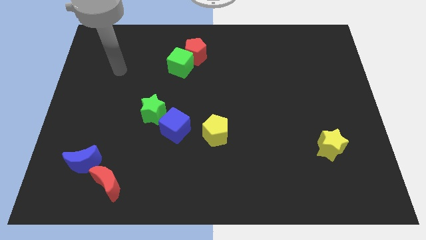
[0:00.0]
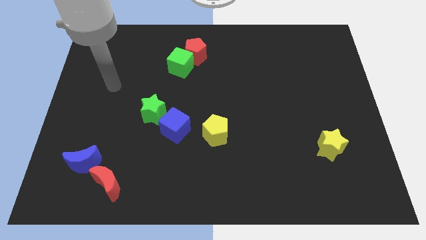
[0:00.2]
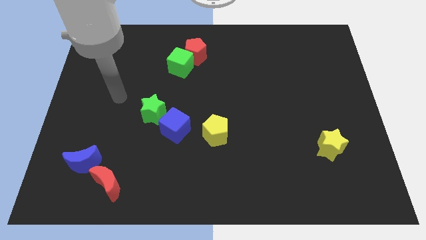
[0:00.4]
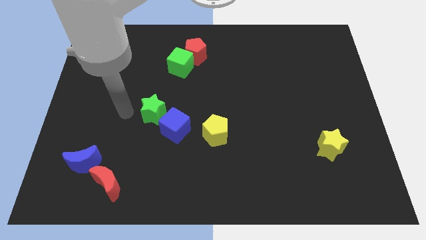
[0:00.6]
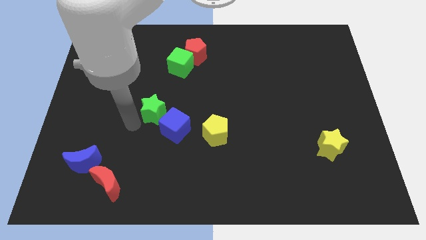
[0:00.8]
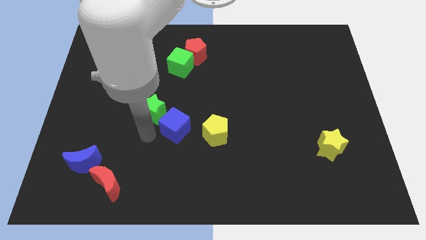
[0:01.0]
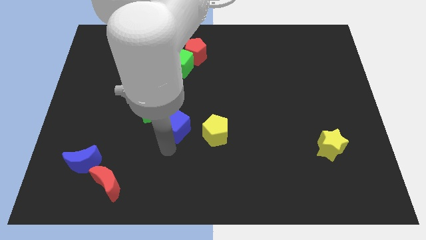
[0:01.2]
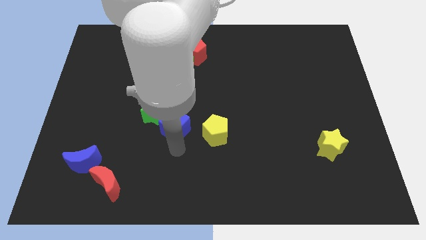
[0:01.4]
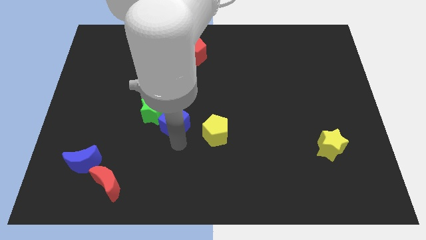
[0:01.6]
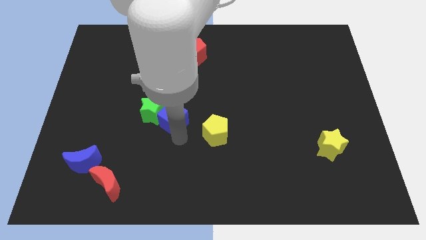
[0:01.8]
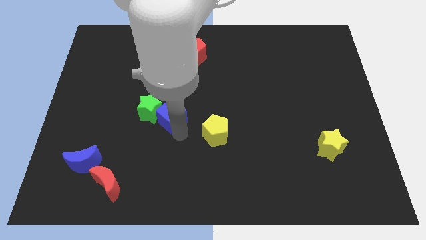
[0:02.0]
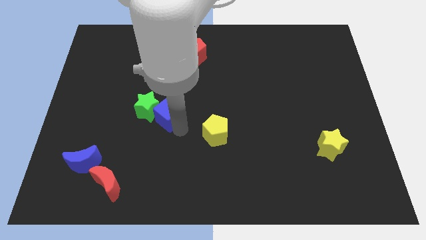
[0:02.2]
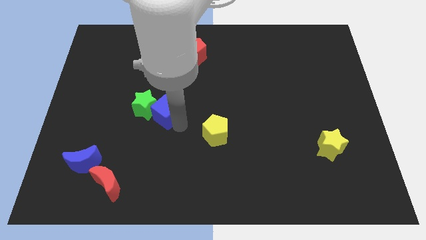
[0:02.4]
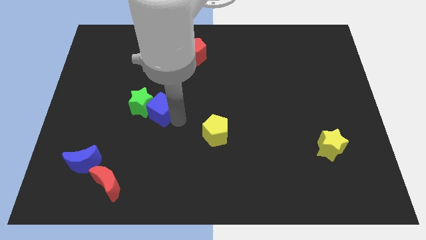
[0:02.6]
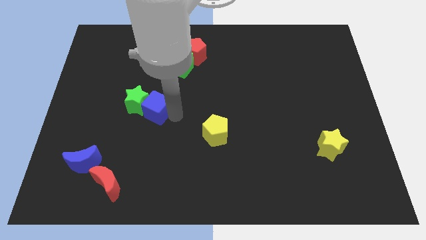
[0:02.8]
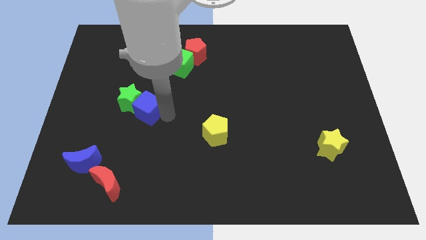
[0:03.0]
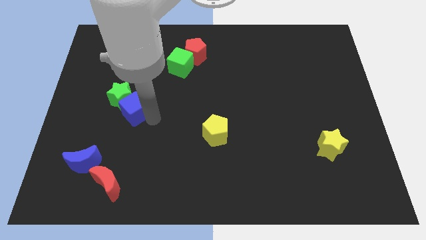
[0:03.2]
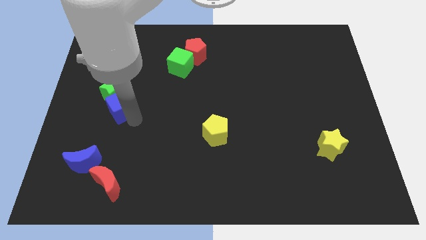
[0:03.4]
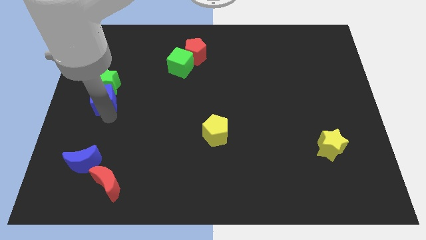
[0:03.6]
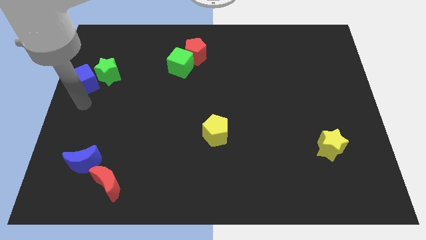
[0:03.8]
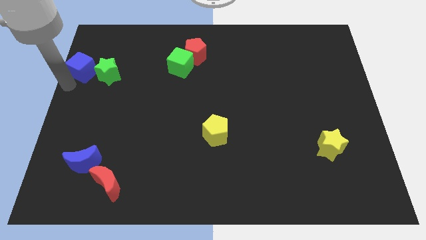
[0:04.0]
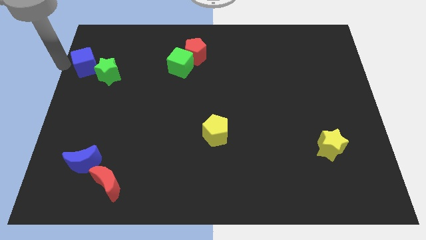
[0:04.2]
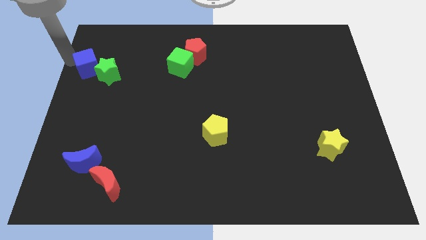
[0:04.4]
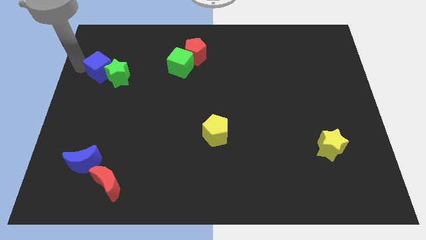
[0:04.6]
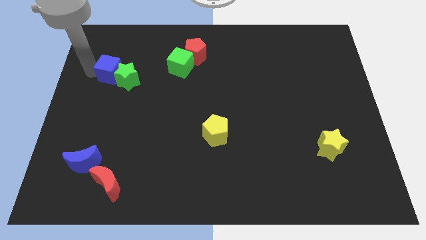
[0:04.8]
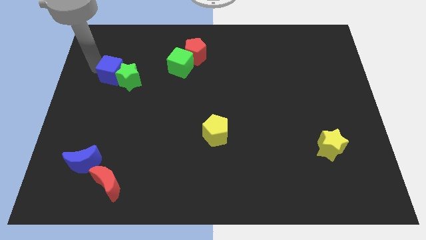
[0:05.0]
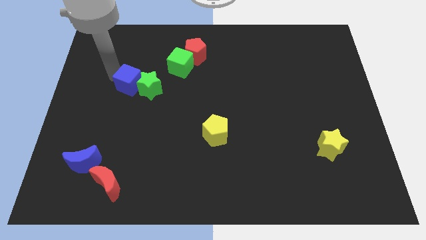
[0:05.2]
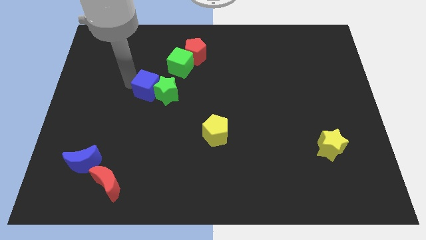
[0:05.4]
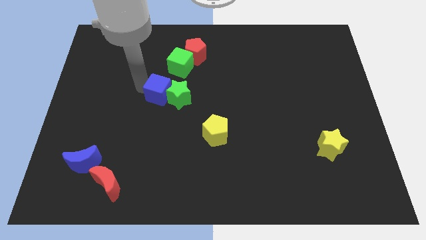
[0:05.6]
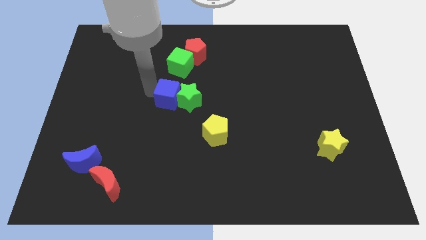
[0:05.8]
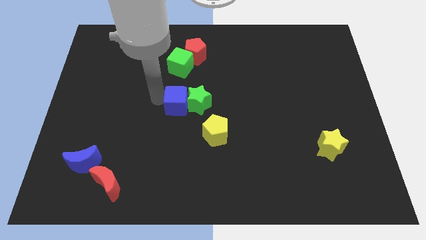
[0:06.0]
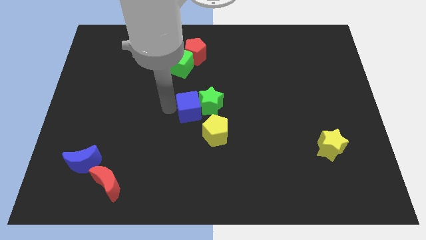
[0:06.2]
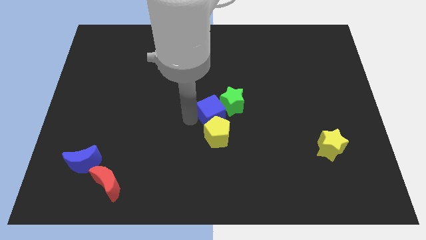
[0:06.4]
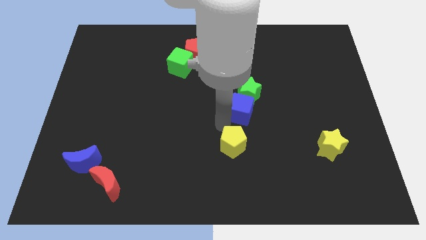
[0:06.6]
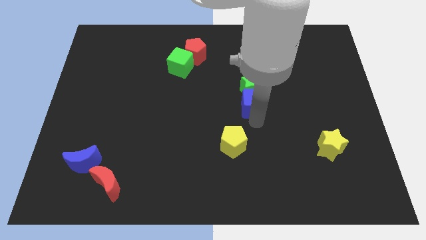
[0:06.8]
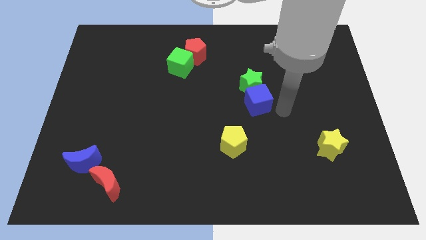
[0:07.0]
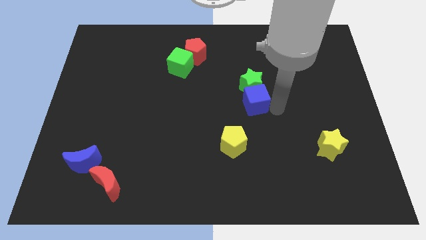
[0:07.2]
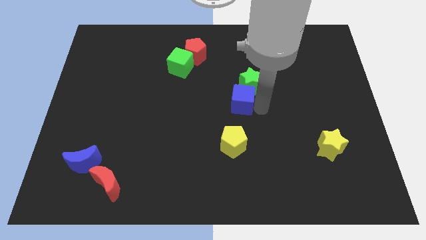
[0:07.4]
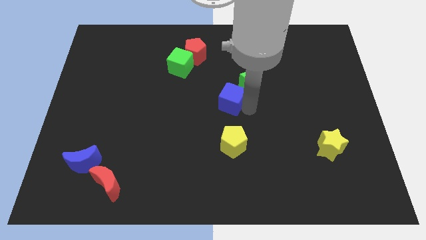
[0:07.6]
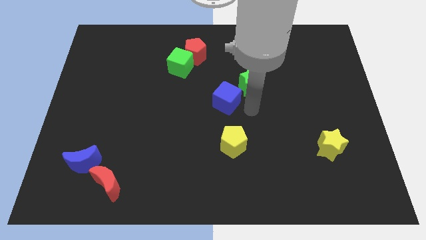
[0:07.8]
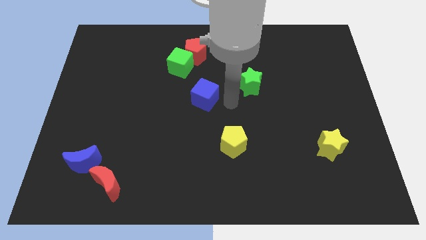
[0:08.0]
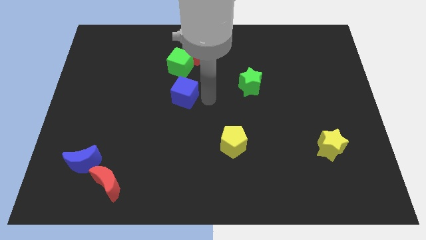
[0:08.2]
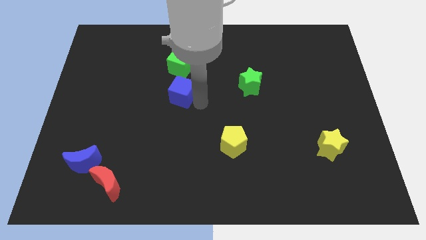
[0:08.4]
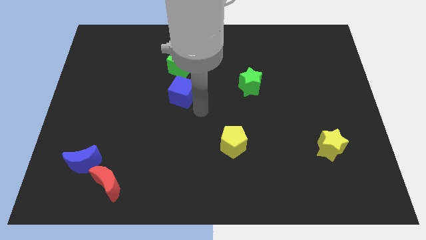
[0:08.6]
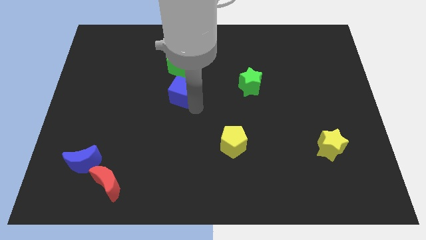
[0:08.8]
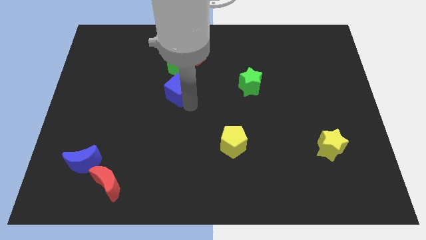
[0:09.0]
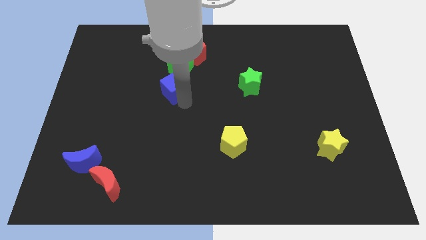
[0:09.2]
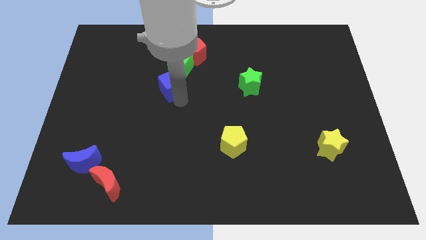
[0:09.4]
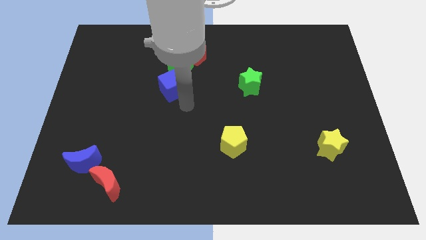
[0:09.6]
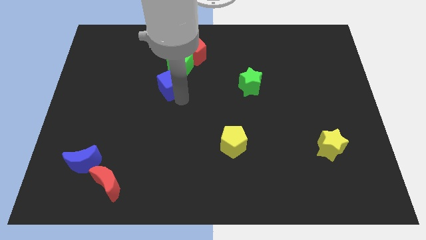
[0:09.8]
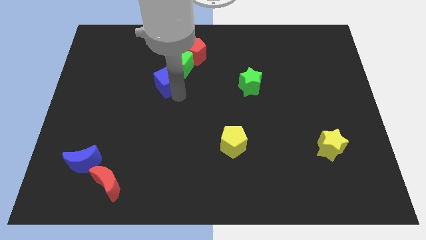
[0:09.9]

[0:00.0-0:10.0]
put the blue cube to the bottom left of the red pentagon

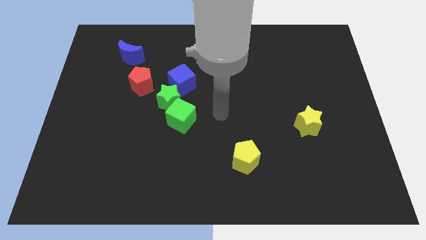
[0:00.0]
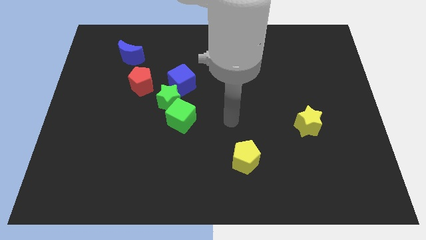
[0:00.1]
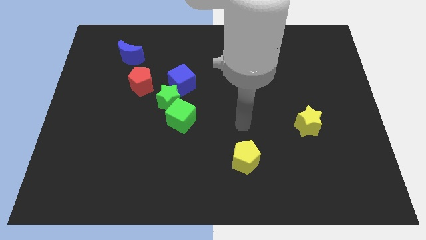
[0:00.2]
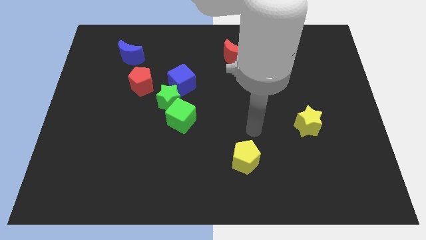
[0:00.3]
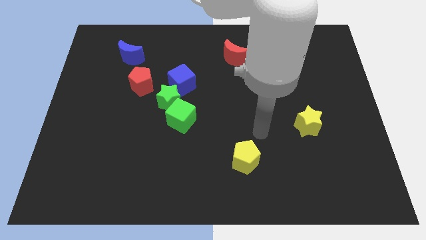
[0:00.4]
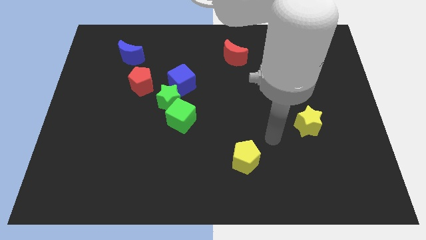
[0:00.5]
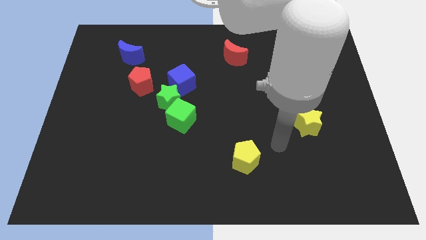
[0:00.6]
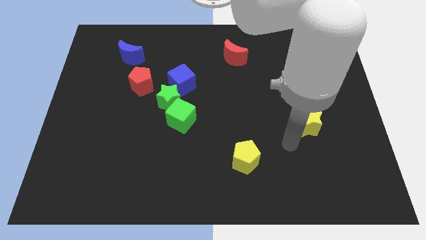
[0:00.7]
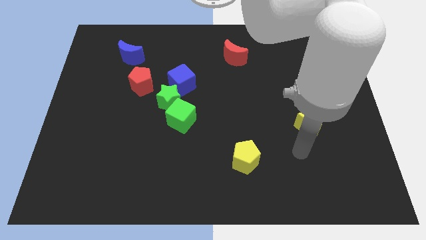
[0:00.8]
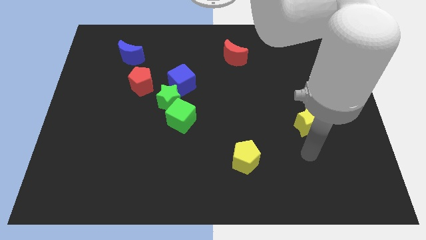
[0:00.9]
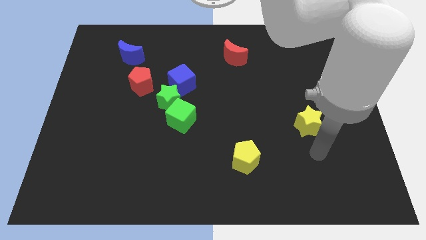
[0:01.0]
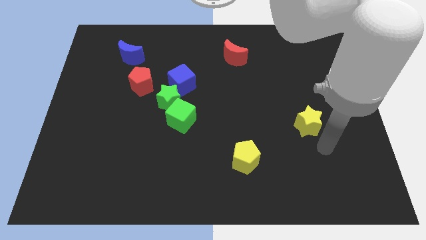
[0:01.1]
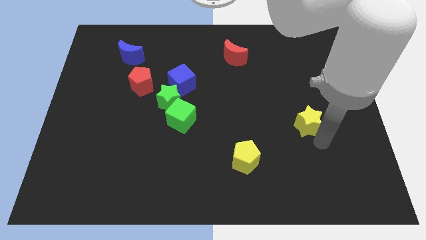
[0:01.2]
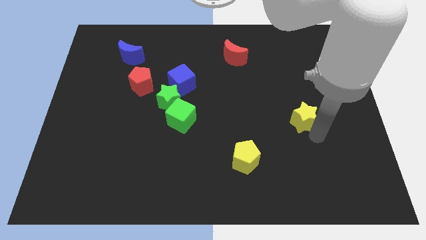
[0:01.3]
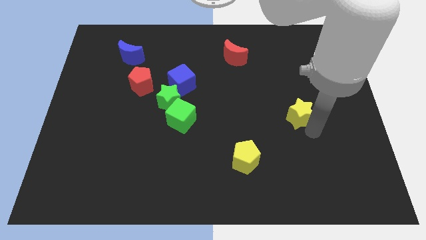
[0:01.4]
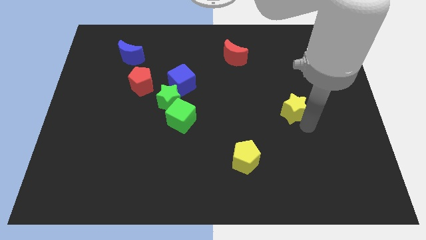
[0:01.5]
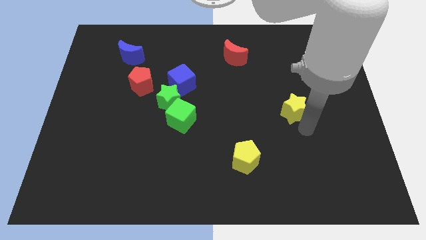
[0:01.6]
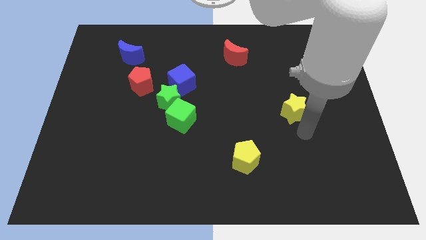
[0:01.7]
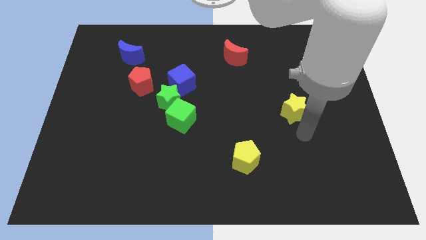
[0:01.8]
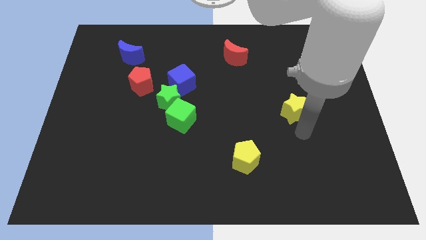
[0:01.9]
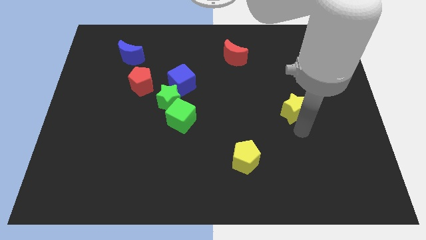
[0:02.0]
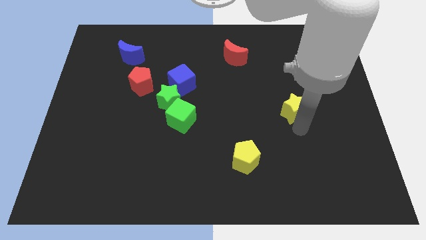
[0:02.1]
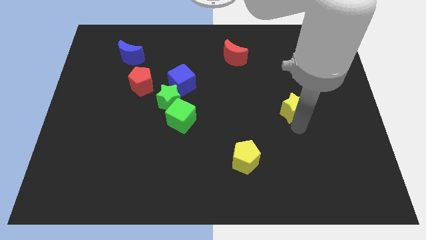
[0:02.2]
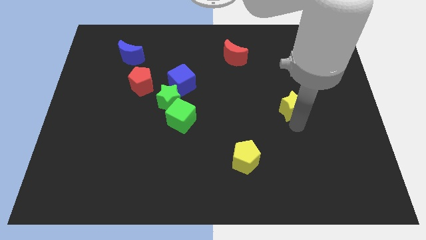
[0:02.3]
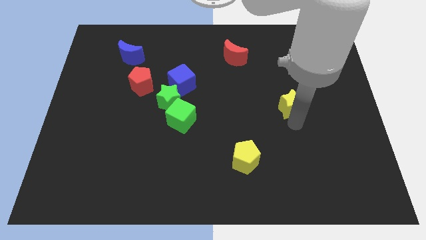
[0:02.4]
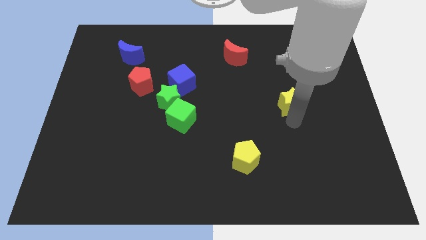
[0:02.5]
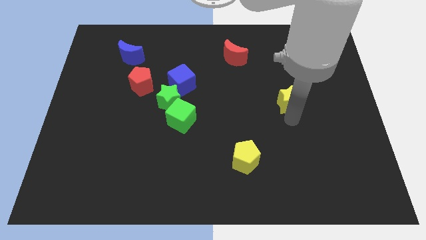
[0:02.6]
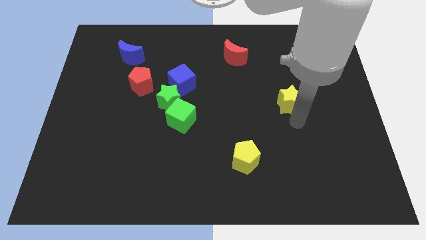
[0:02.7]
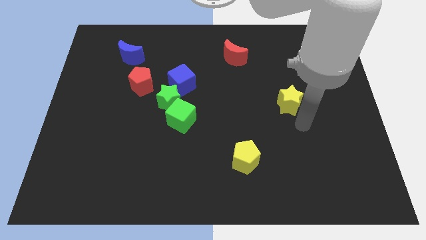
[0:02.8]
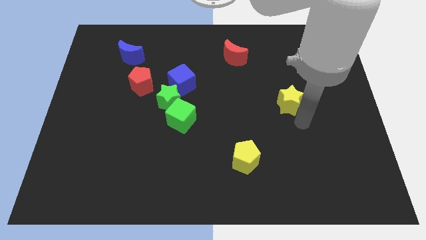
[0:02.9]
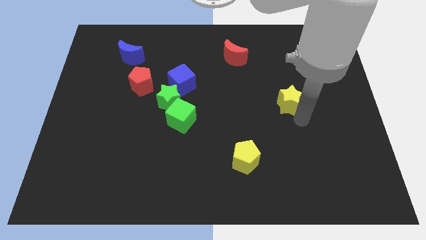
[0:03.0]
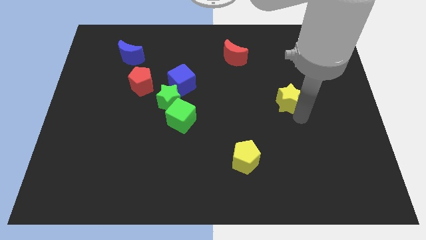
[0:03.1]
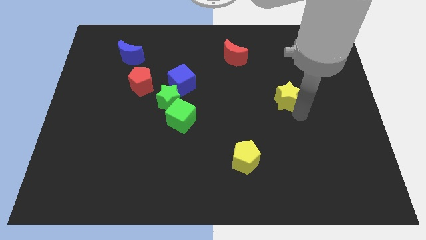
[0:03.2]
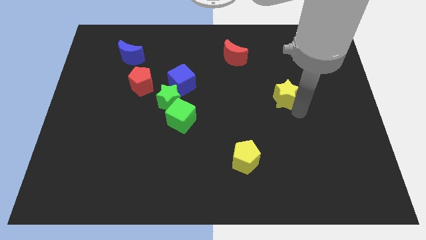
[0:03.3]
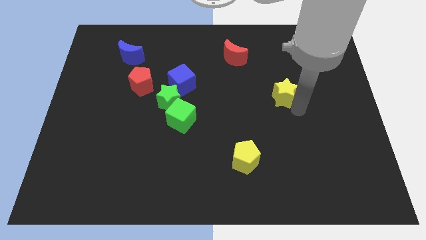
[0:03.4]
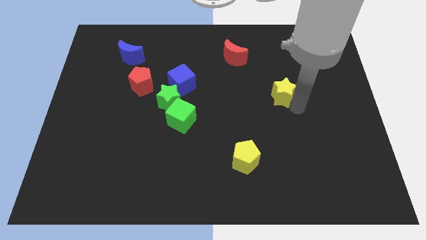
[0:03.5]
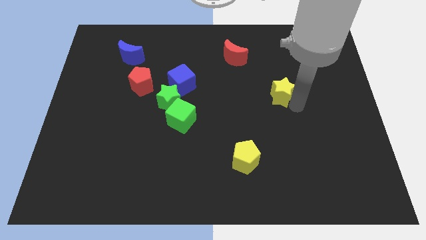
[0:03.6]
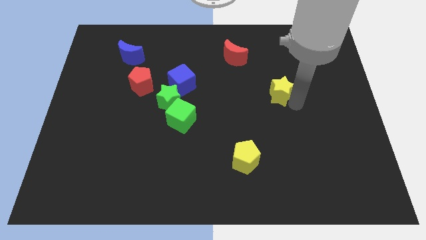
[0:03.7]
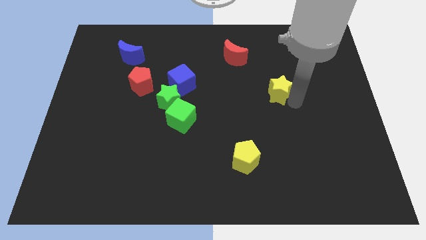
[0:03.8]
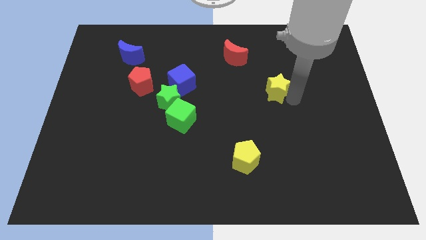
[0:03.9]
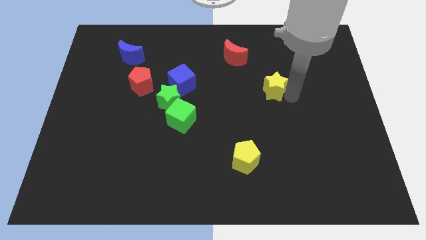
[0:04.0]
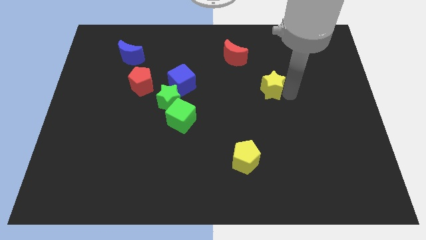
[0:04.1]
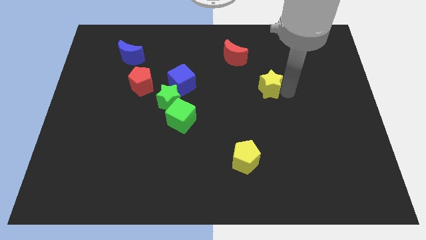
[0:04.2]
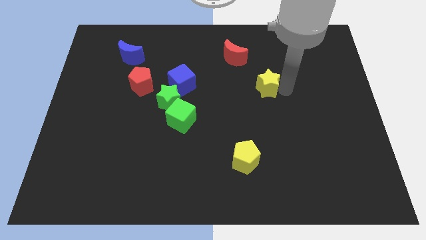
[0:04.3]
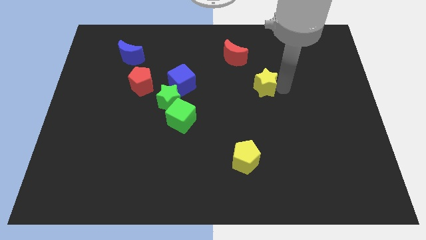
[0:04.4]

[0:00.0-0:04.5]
put the yellow star diagonally down and to the right of the red moon
